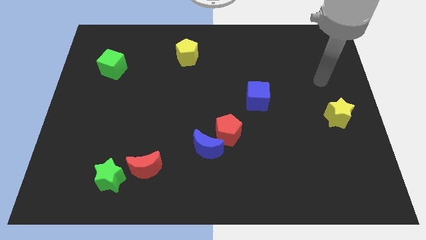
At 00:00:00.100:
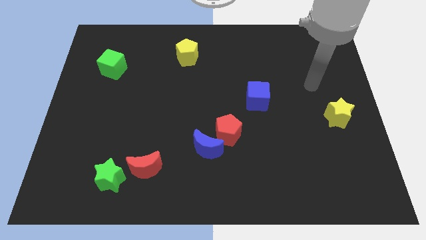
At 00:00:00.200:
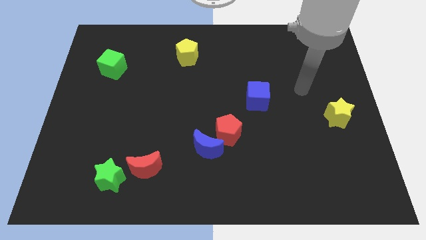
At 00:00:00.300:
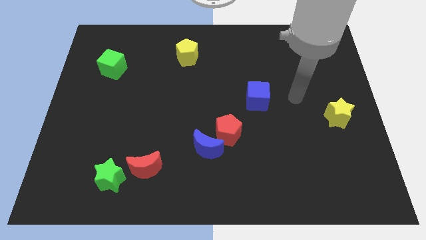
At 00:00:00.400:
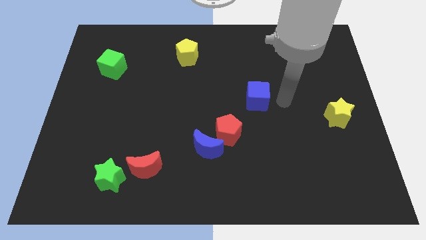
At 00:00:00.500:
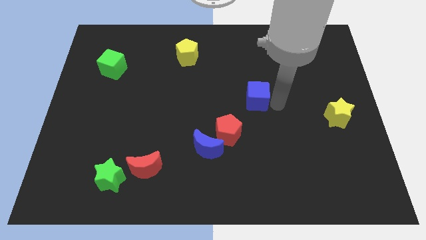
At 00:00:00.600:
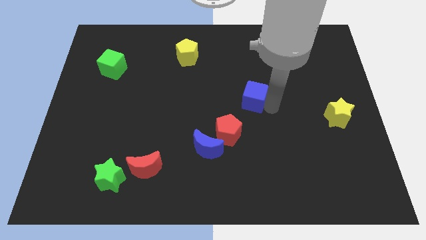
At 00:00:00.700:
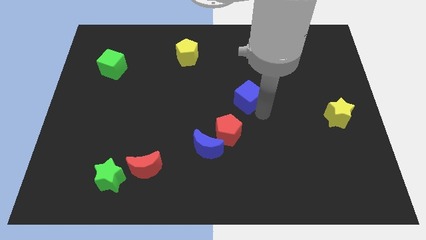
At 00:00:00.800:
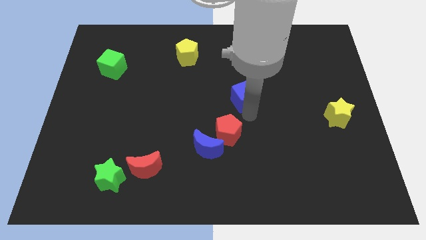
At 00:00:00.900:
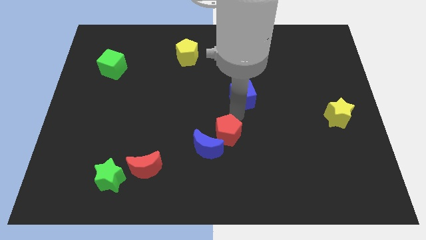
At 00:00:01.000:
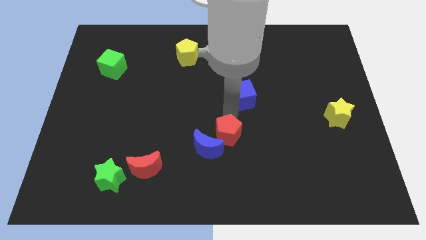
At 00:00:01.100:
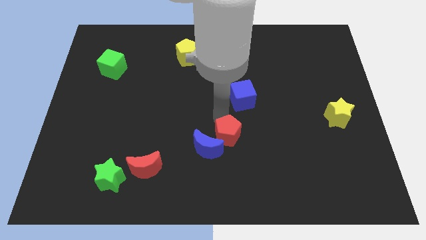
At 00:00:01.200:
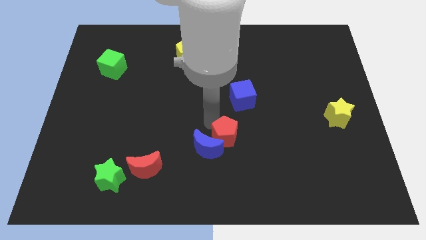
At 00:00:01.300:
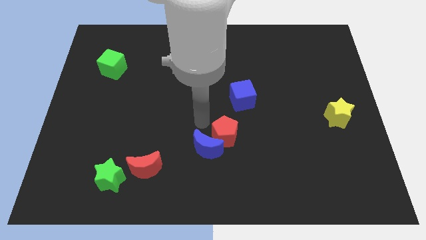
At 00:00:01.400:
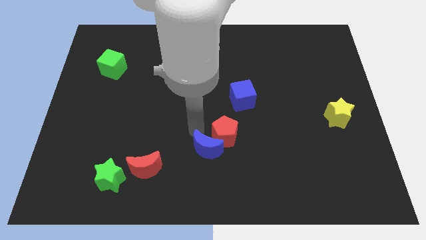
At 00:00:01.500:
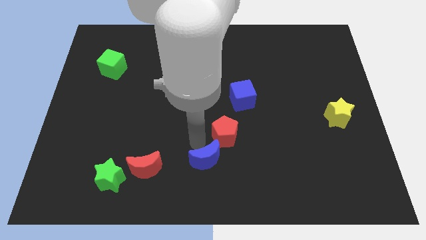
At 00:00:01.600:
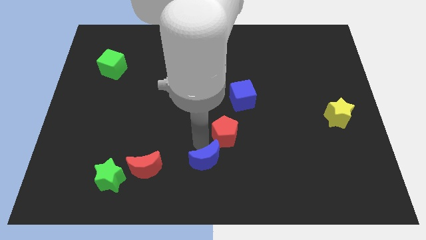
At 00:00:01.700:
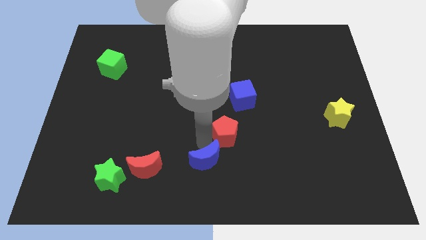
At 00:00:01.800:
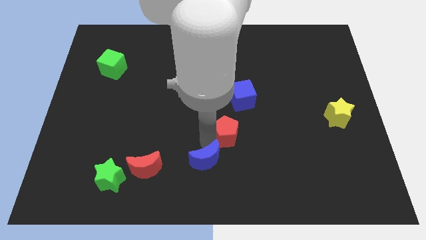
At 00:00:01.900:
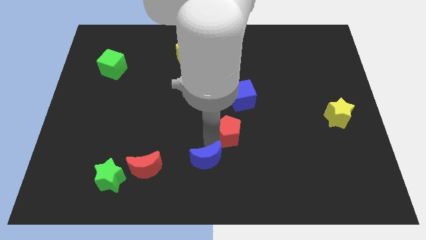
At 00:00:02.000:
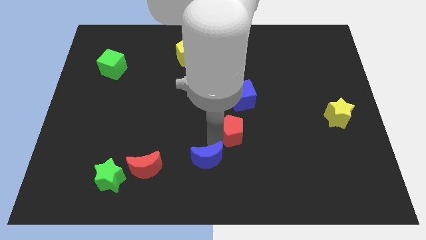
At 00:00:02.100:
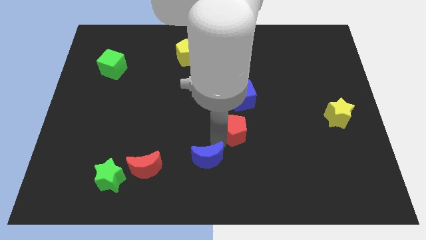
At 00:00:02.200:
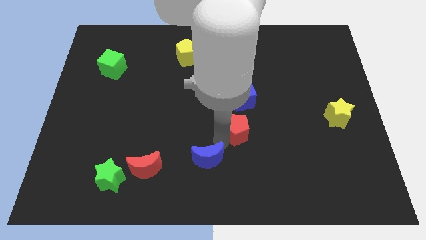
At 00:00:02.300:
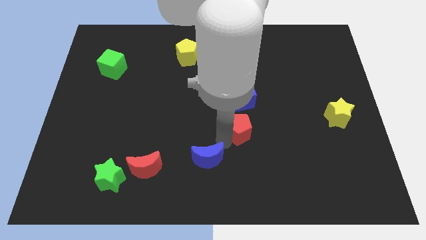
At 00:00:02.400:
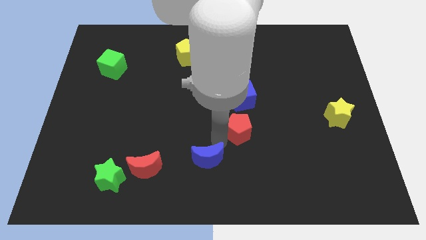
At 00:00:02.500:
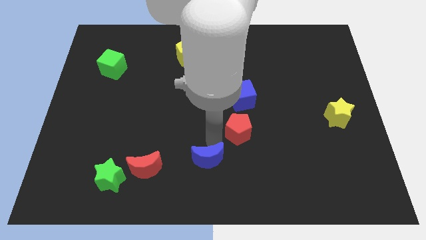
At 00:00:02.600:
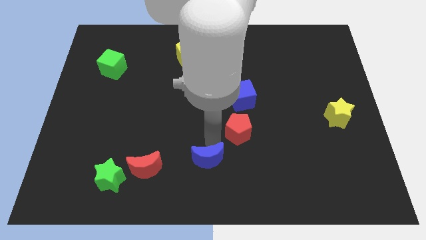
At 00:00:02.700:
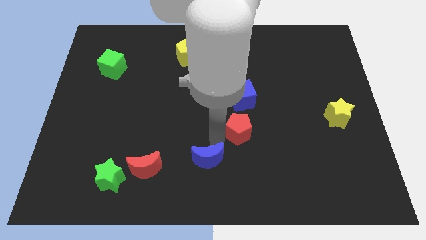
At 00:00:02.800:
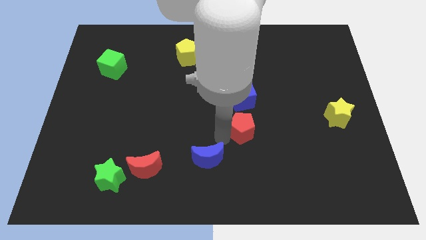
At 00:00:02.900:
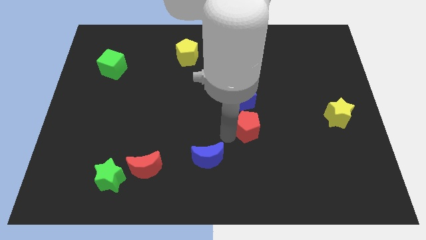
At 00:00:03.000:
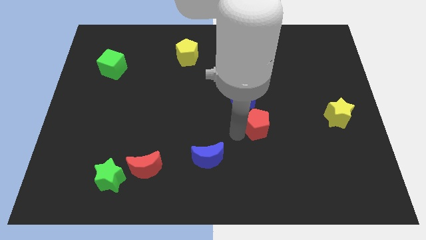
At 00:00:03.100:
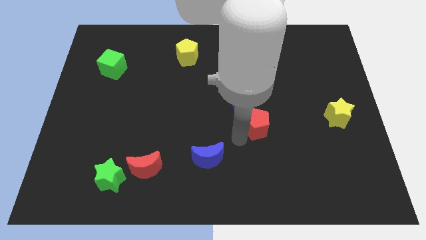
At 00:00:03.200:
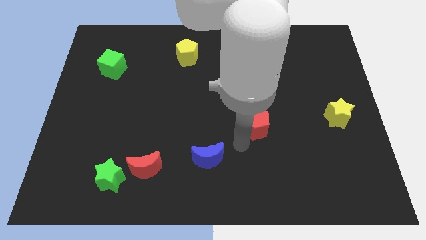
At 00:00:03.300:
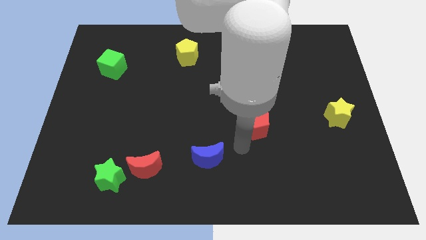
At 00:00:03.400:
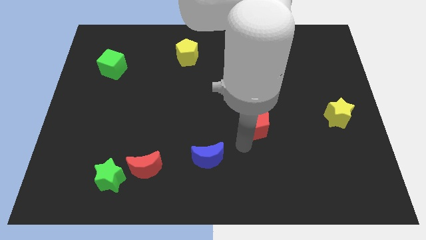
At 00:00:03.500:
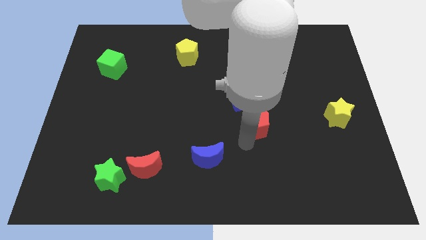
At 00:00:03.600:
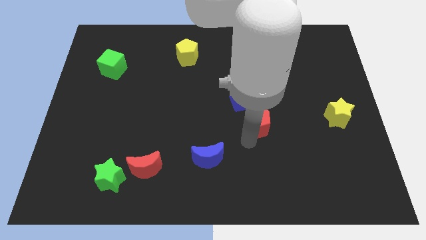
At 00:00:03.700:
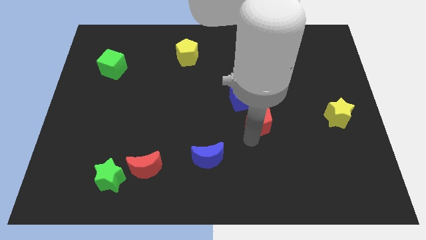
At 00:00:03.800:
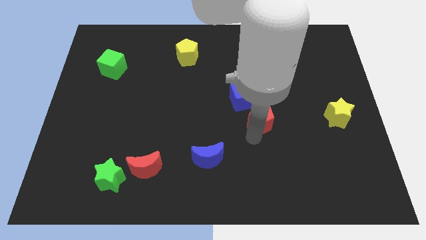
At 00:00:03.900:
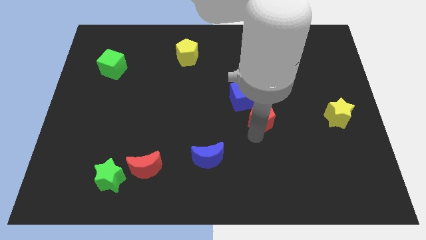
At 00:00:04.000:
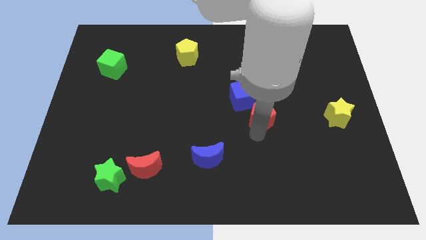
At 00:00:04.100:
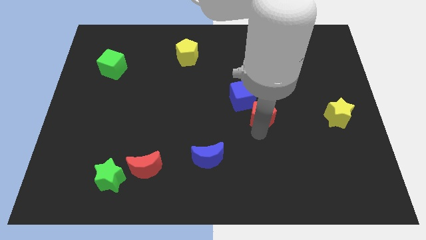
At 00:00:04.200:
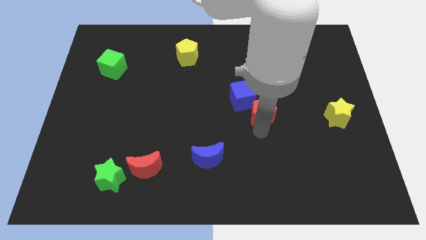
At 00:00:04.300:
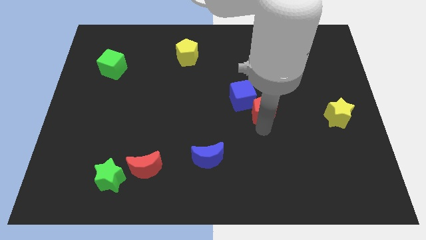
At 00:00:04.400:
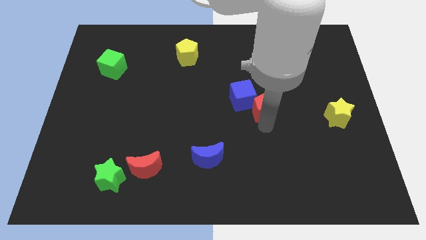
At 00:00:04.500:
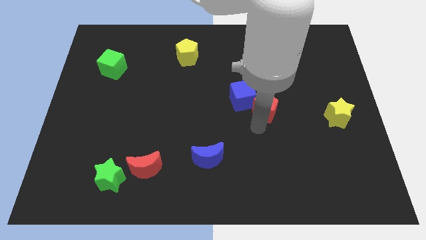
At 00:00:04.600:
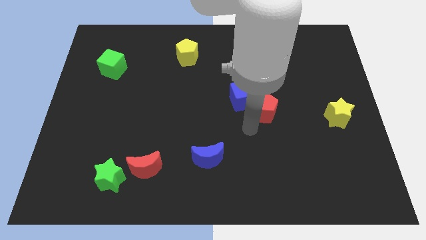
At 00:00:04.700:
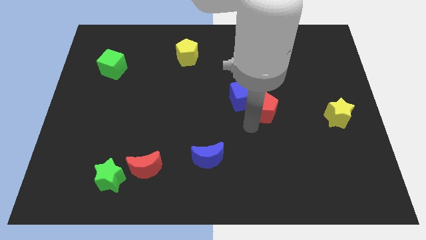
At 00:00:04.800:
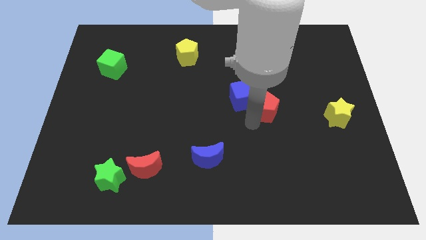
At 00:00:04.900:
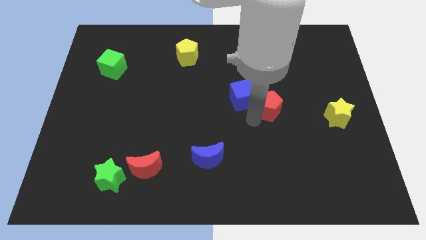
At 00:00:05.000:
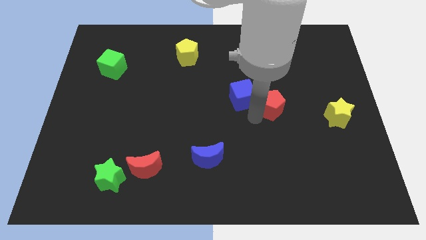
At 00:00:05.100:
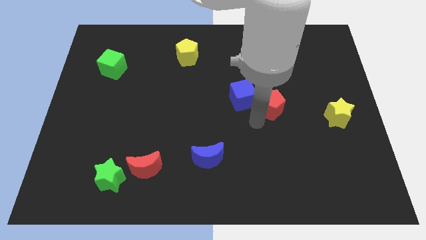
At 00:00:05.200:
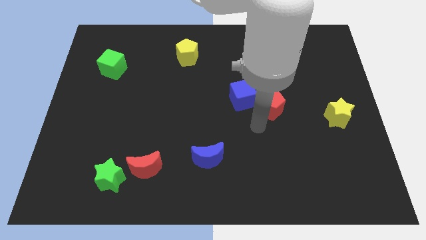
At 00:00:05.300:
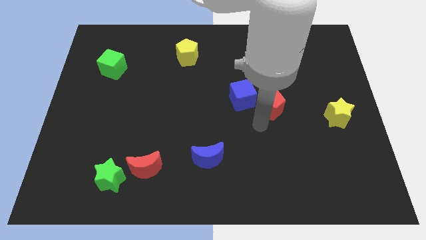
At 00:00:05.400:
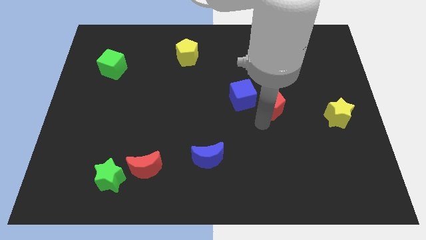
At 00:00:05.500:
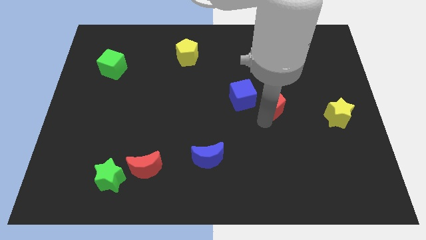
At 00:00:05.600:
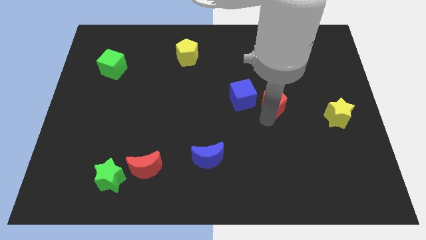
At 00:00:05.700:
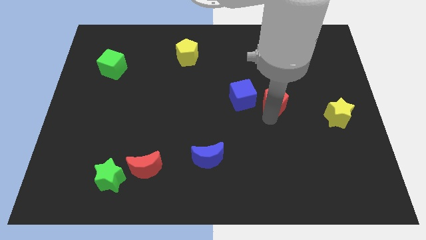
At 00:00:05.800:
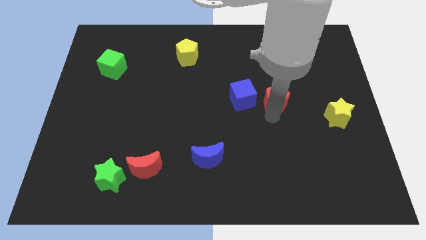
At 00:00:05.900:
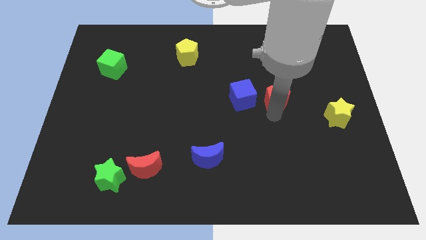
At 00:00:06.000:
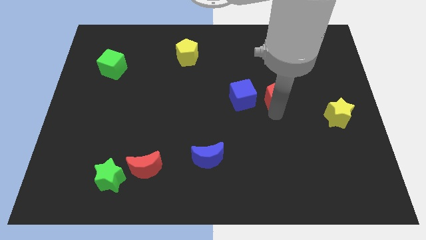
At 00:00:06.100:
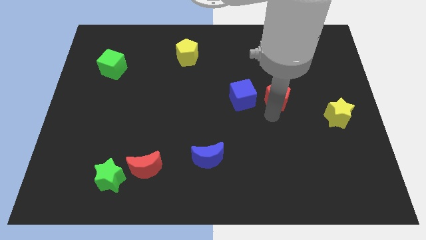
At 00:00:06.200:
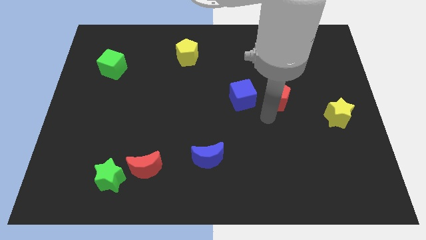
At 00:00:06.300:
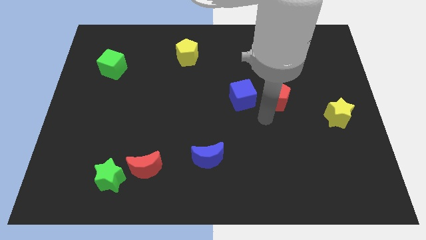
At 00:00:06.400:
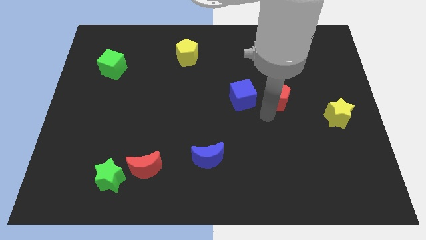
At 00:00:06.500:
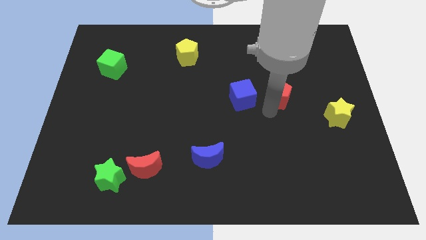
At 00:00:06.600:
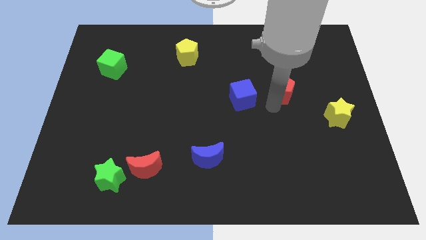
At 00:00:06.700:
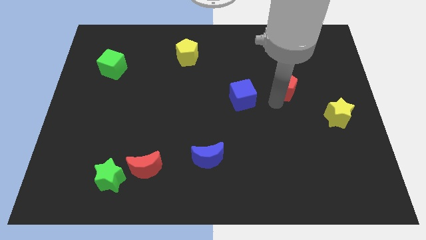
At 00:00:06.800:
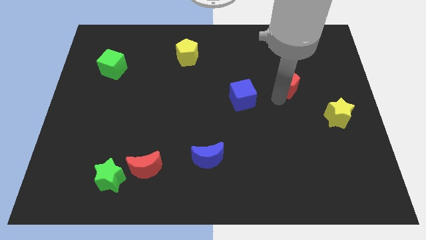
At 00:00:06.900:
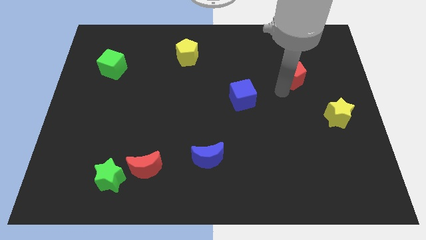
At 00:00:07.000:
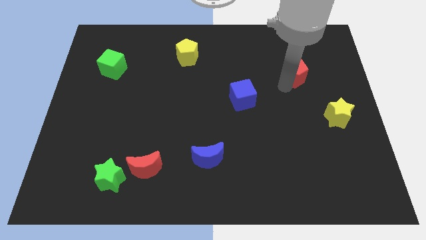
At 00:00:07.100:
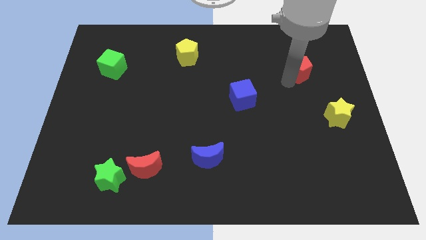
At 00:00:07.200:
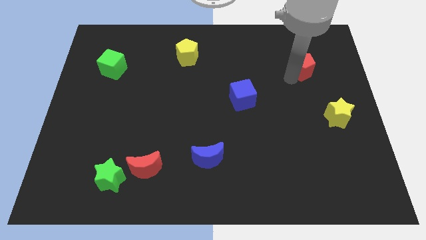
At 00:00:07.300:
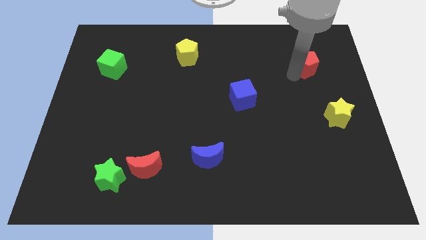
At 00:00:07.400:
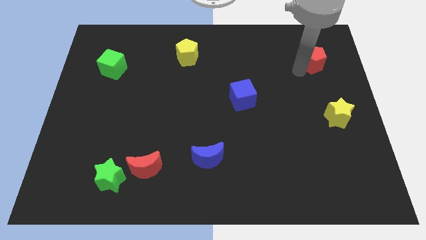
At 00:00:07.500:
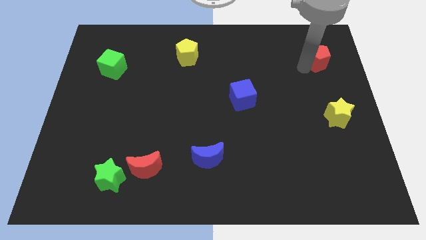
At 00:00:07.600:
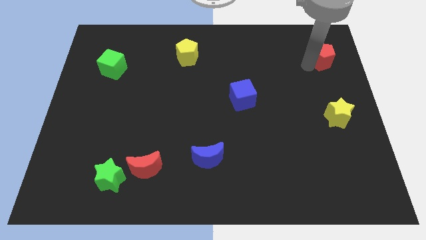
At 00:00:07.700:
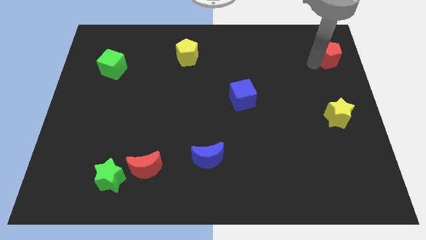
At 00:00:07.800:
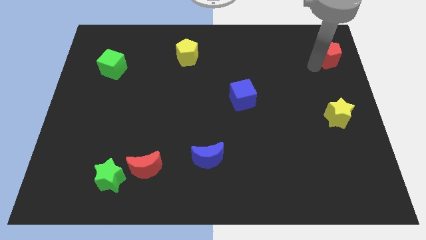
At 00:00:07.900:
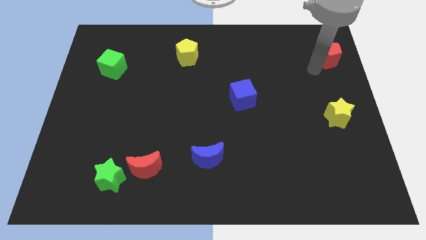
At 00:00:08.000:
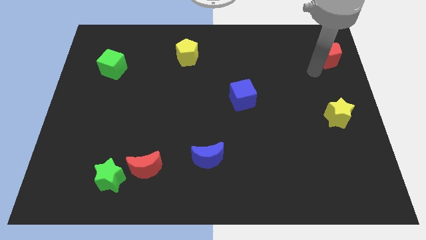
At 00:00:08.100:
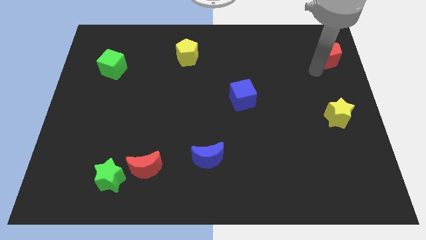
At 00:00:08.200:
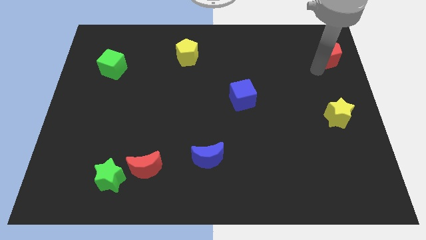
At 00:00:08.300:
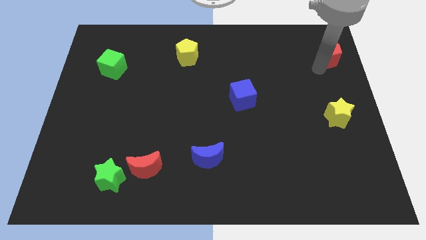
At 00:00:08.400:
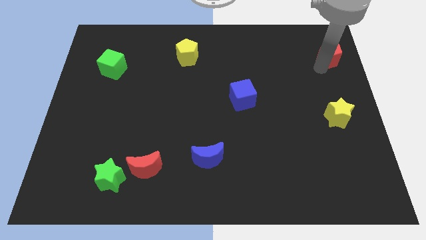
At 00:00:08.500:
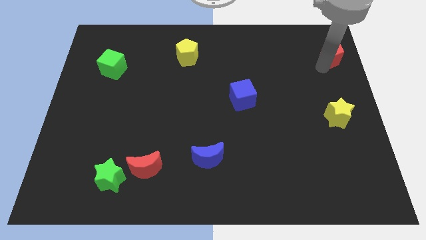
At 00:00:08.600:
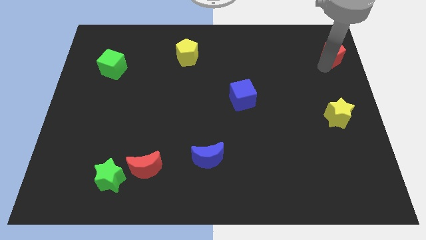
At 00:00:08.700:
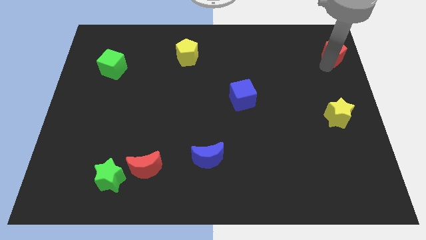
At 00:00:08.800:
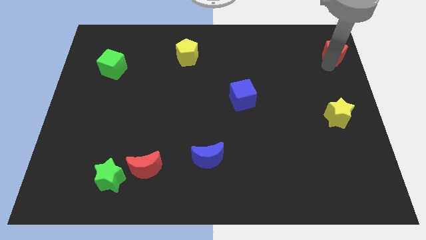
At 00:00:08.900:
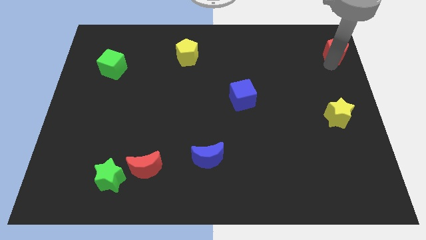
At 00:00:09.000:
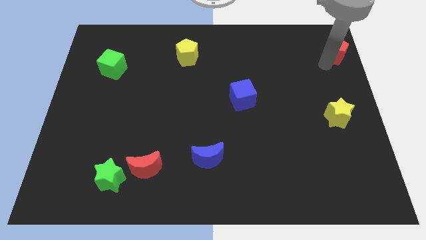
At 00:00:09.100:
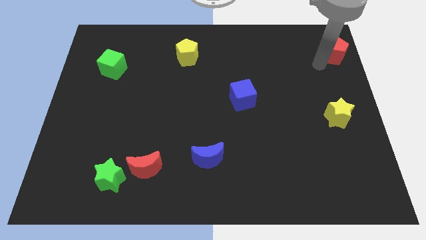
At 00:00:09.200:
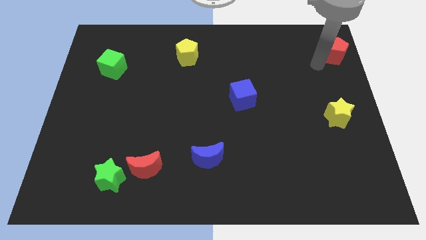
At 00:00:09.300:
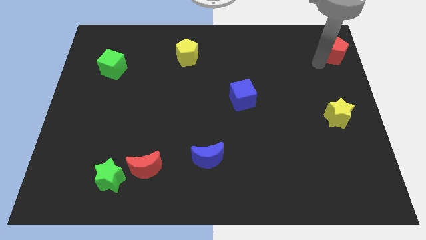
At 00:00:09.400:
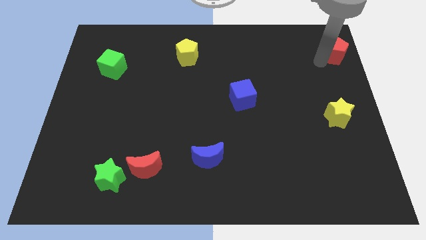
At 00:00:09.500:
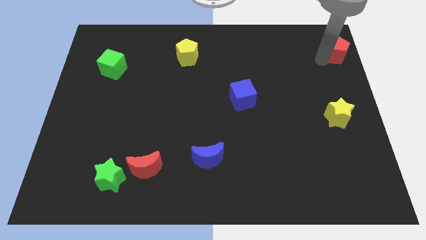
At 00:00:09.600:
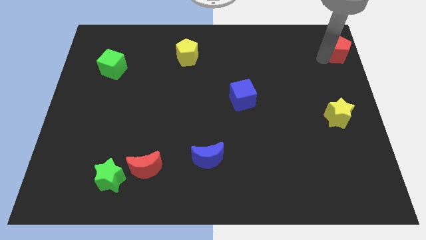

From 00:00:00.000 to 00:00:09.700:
push the red pentagon to the top right
